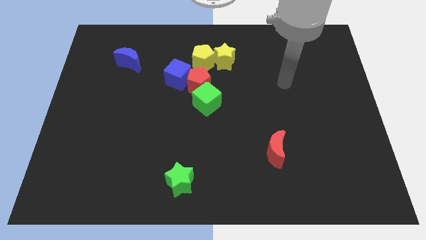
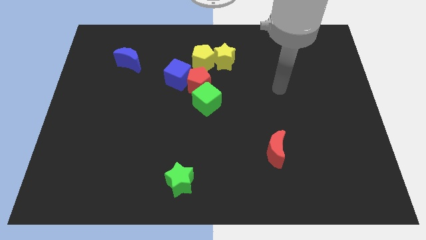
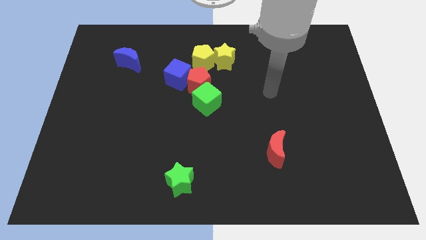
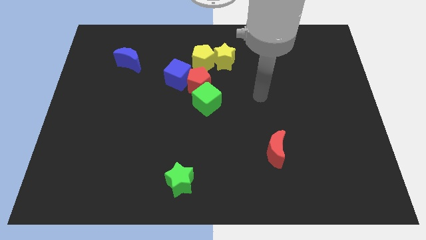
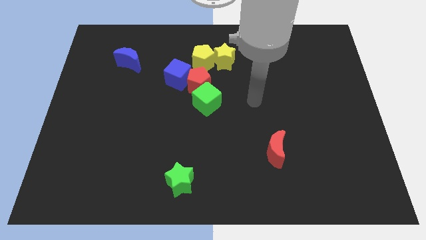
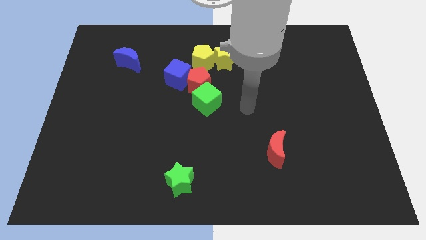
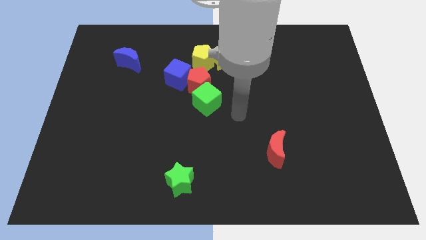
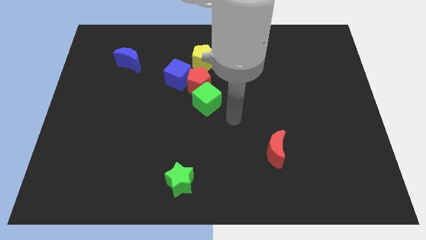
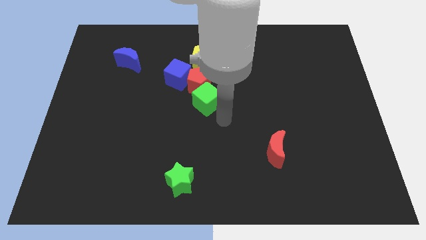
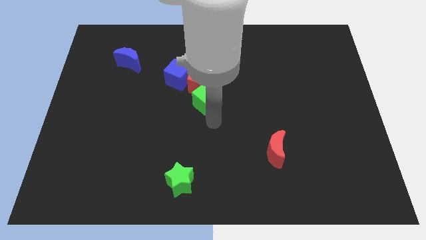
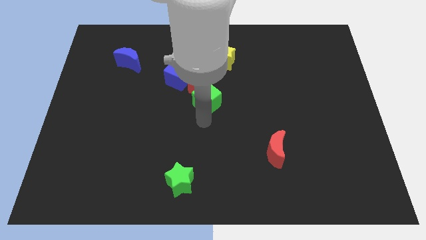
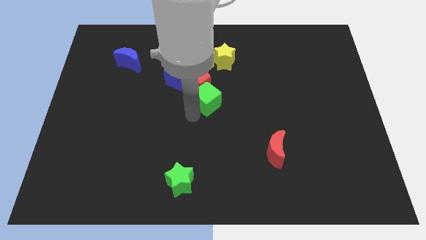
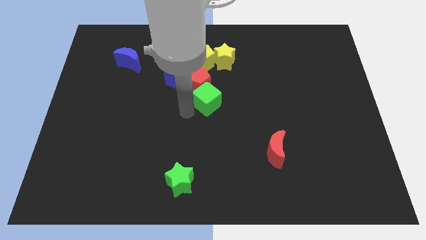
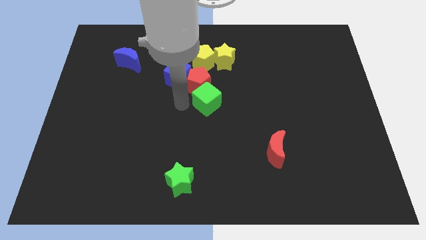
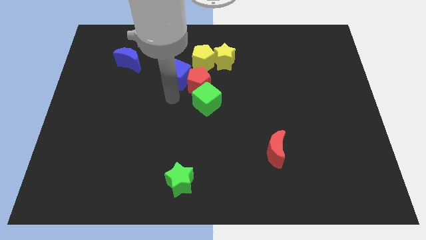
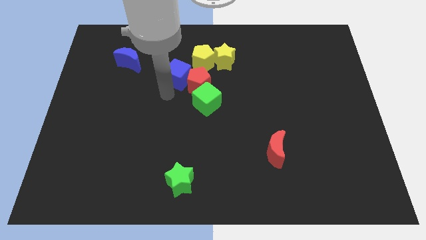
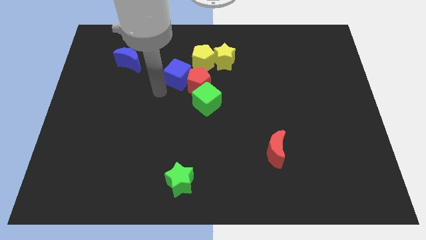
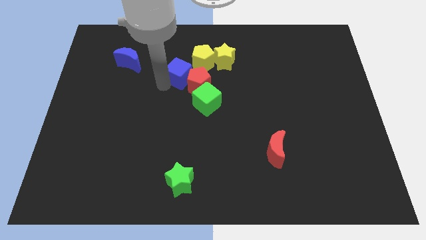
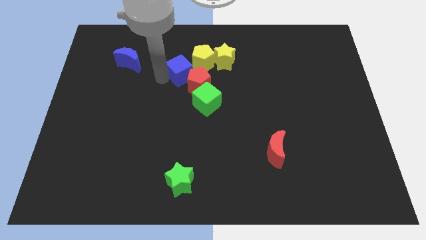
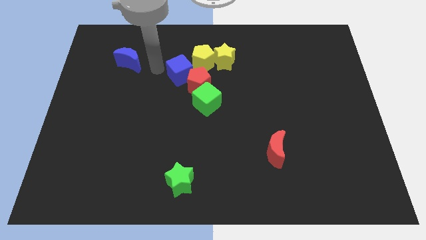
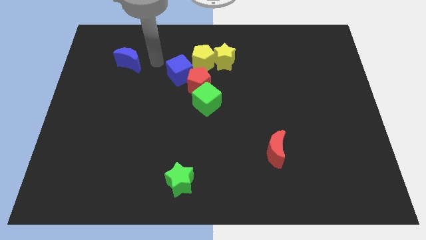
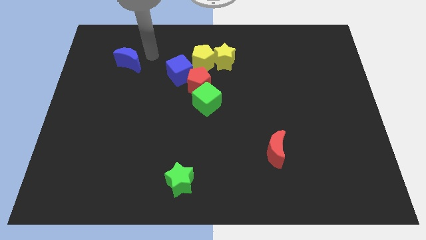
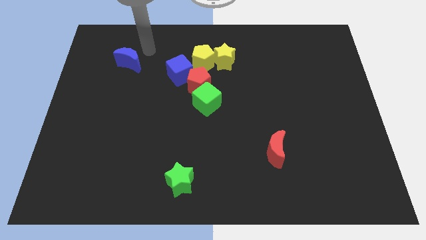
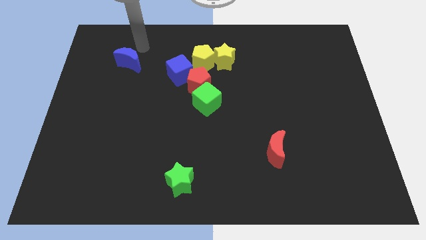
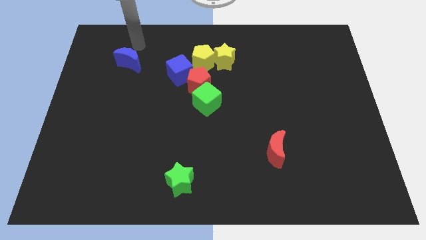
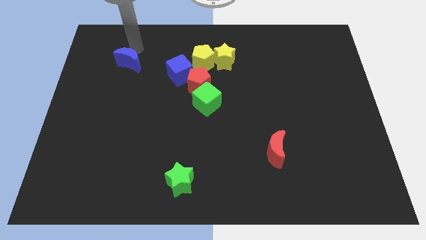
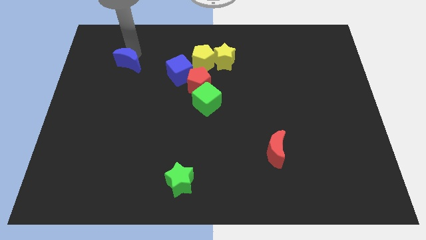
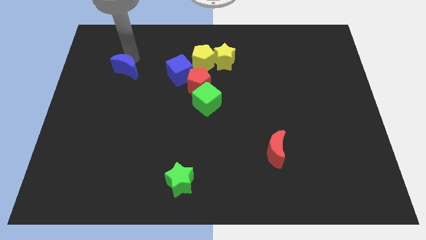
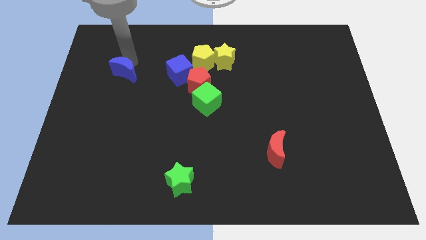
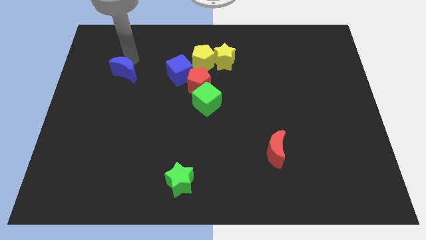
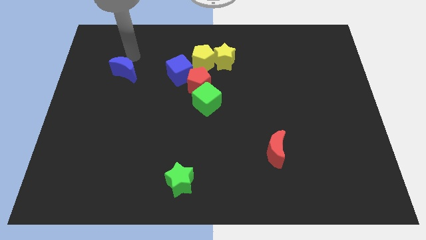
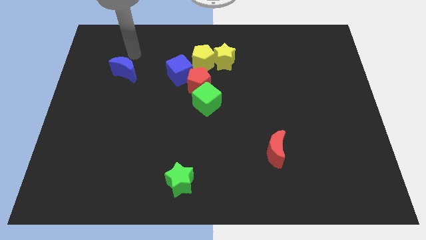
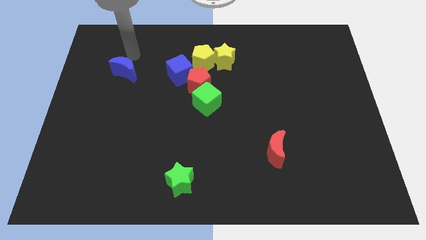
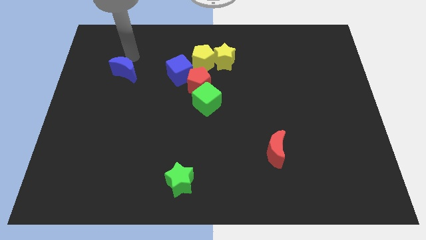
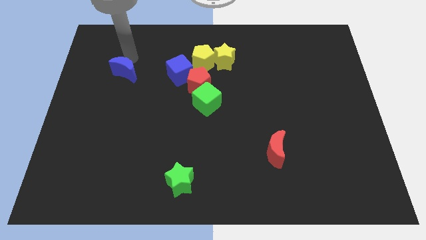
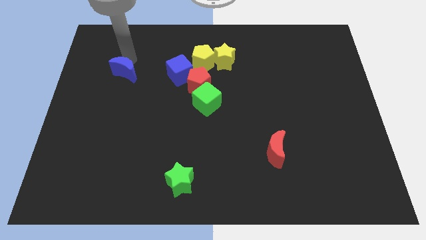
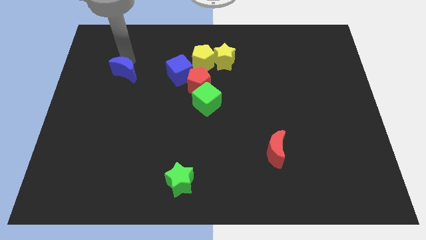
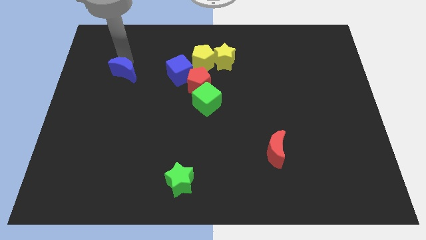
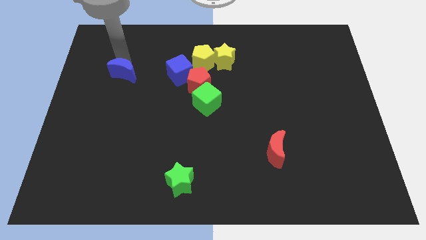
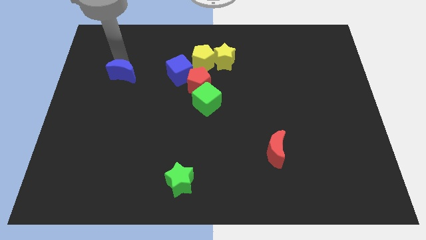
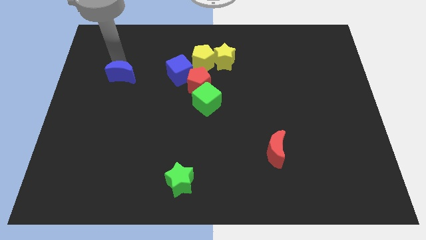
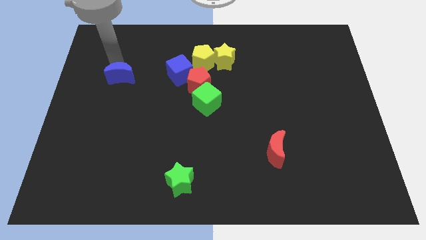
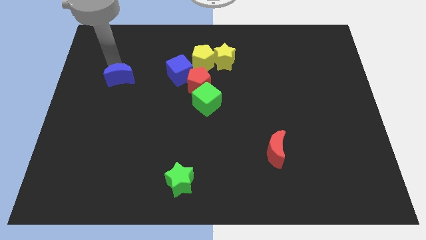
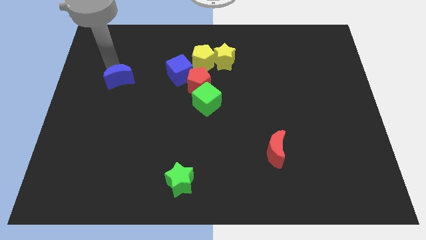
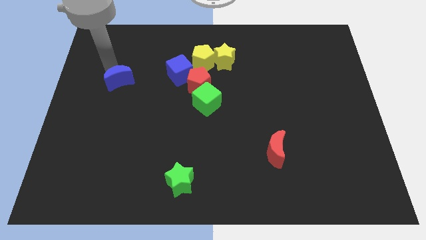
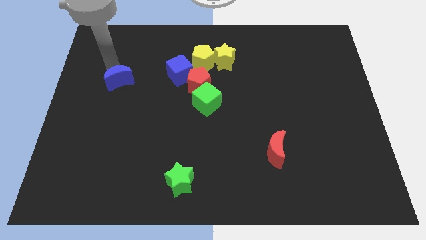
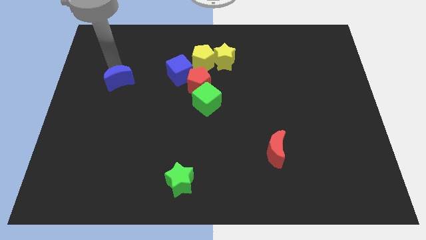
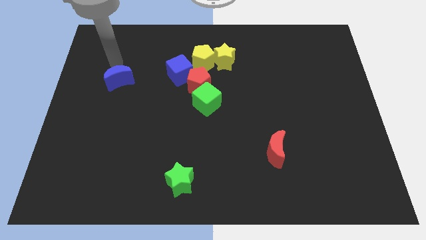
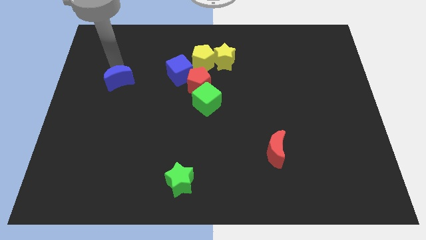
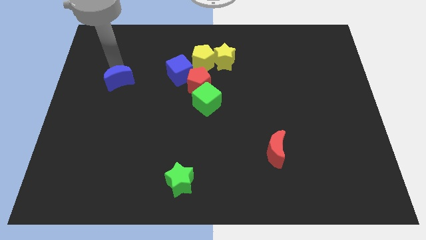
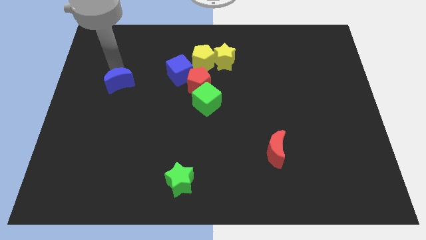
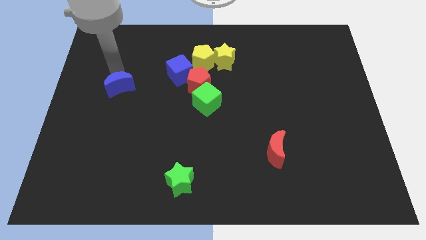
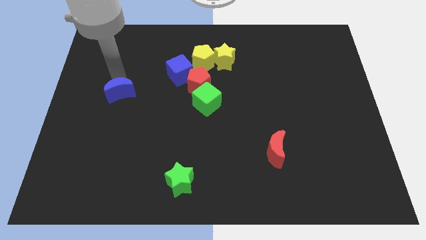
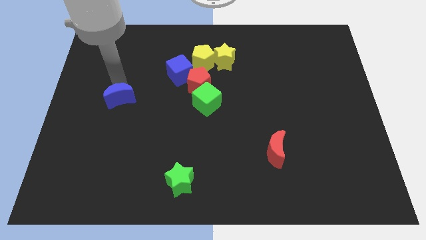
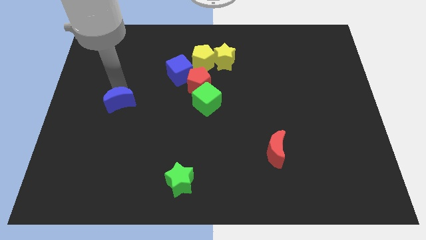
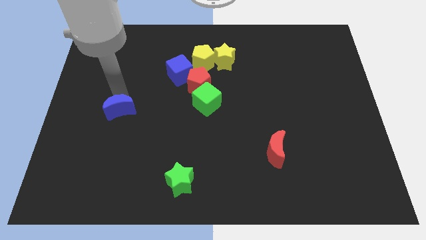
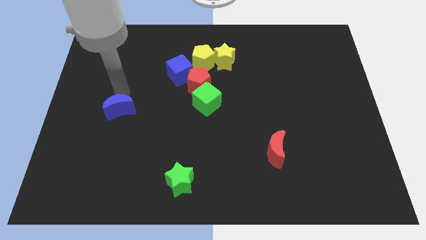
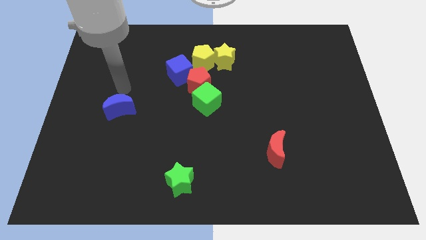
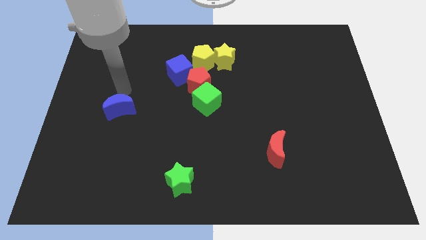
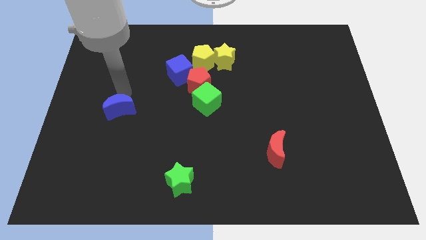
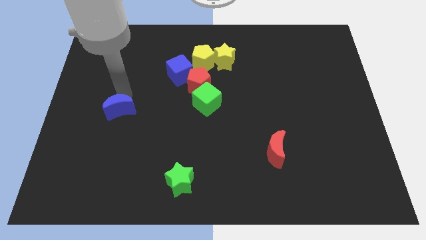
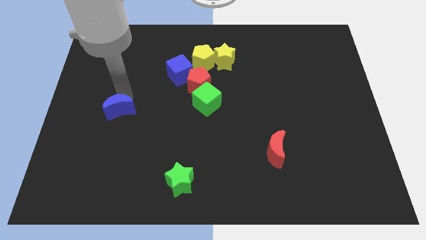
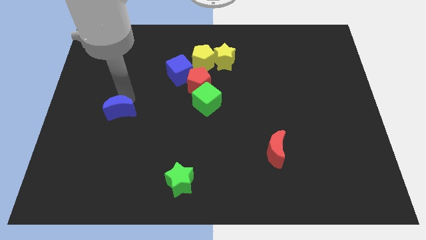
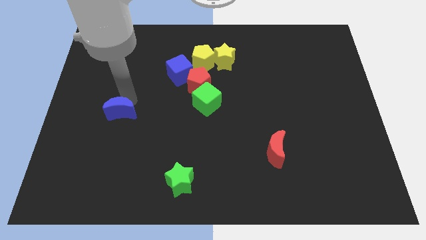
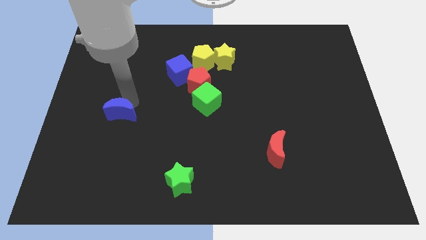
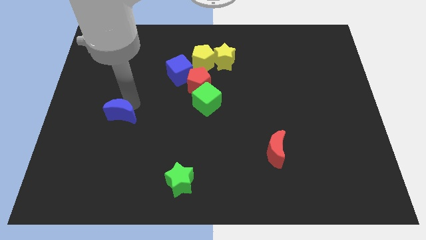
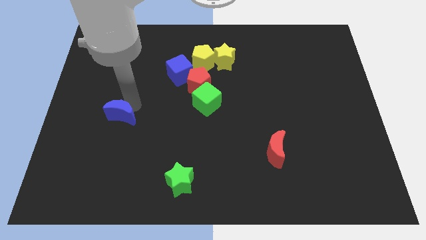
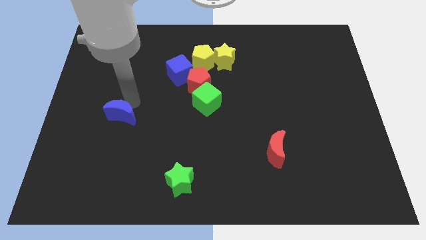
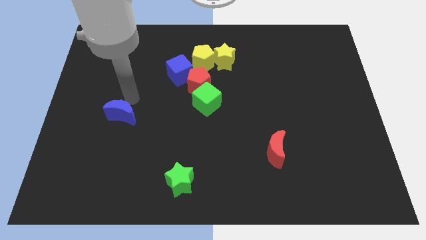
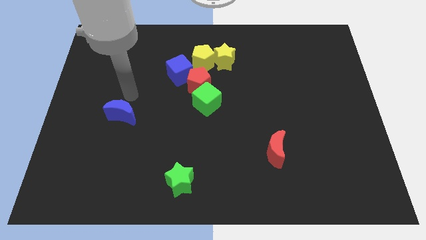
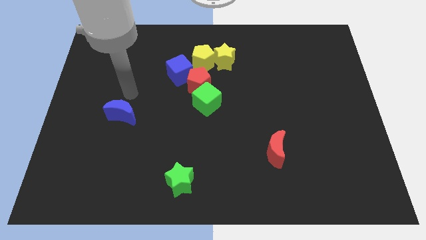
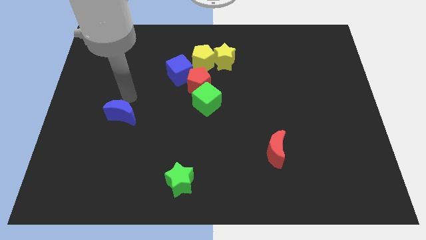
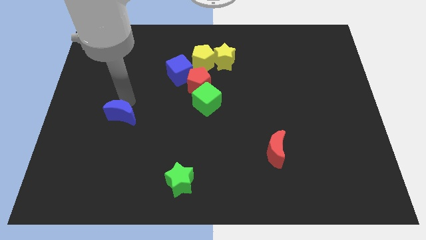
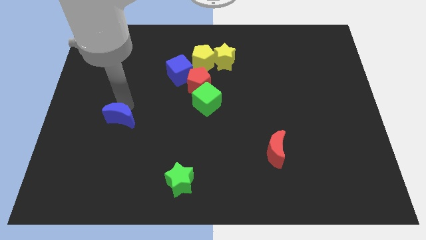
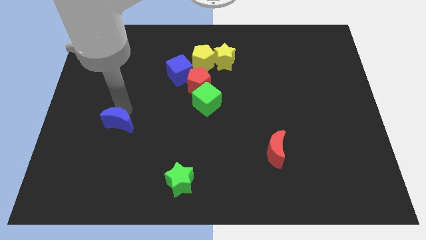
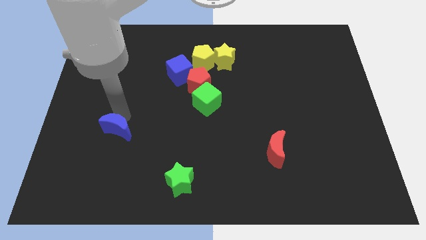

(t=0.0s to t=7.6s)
move the blue moon downwards

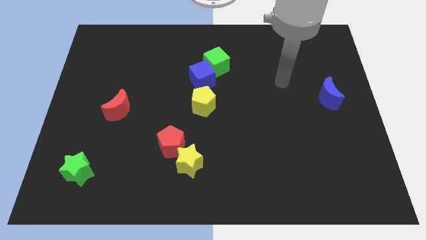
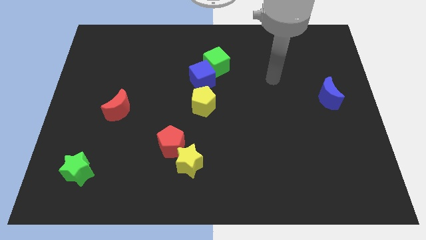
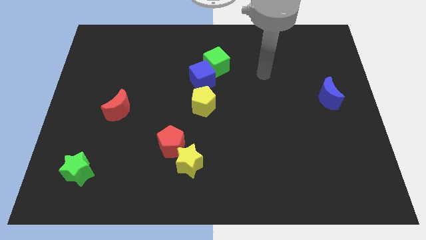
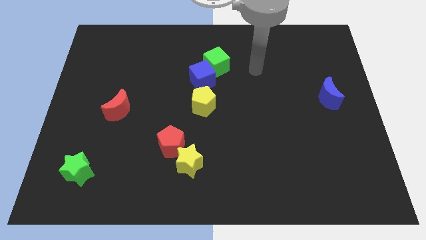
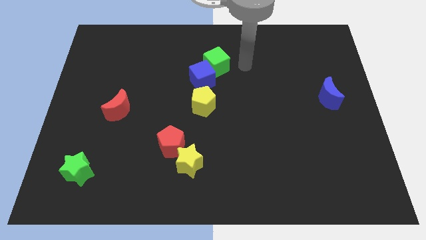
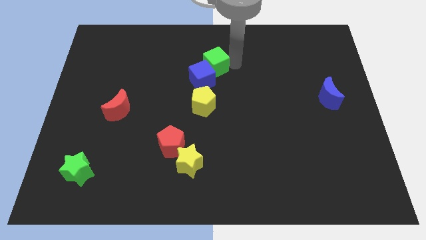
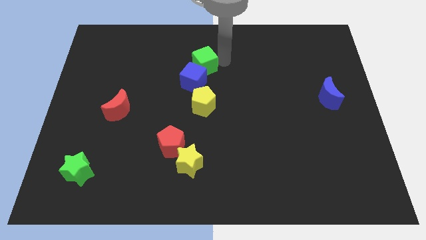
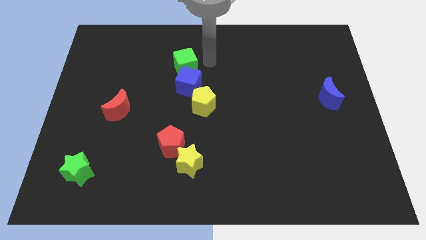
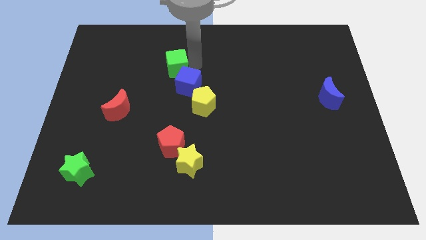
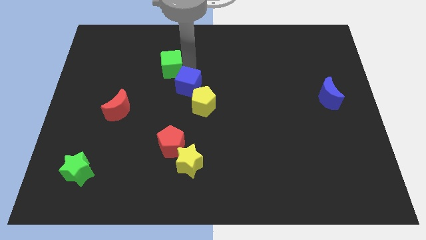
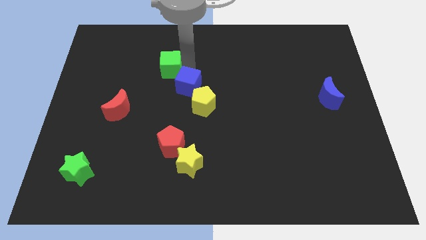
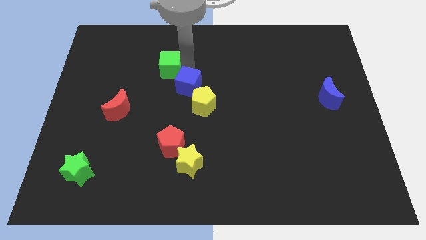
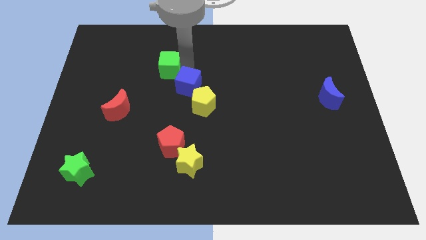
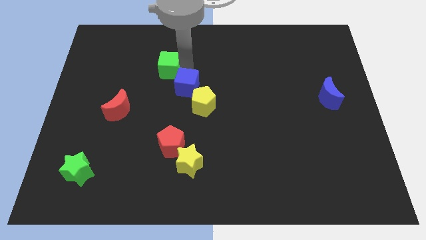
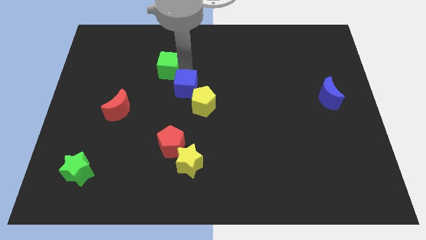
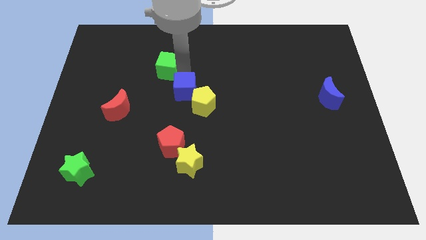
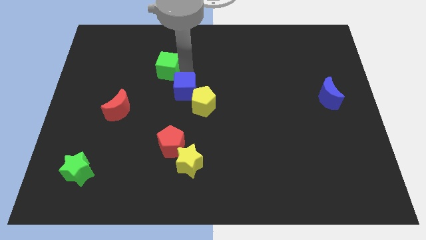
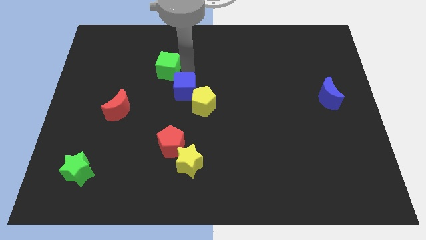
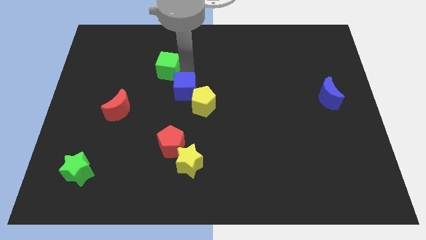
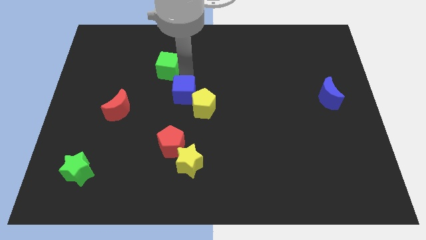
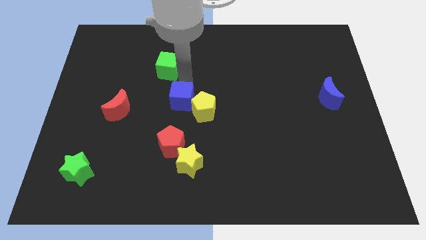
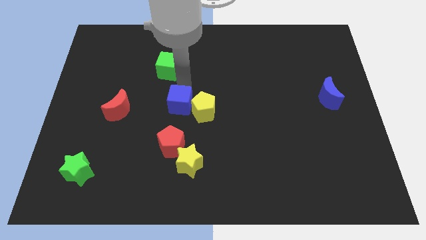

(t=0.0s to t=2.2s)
move the blue cube a bit downwards
